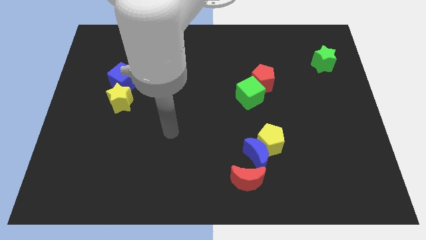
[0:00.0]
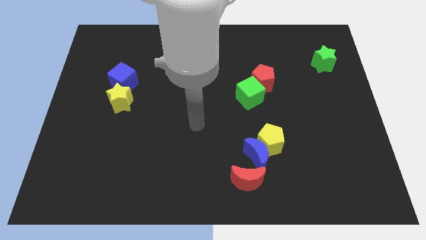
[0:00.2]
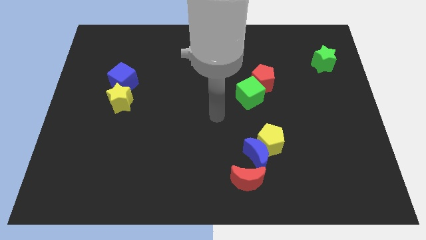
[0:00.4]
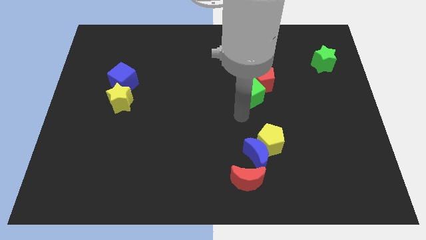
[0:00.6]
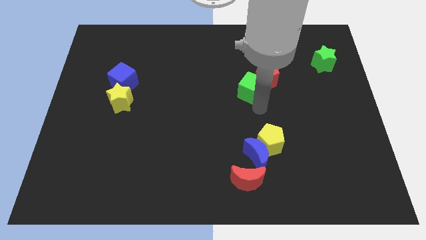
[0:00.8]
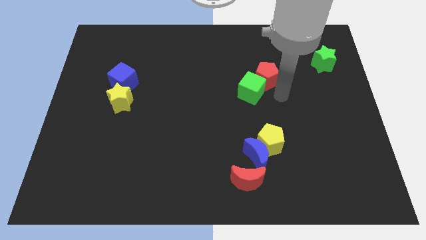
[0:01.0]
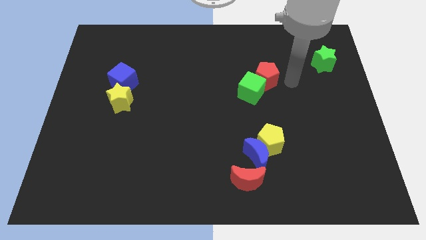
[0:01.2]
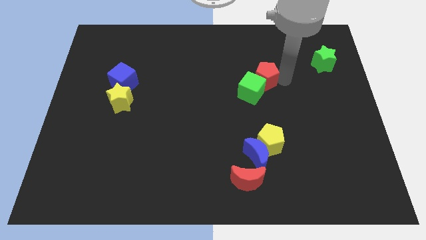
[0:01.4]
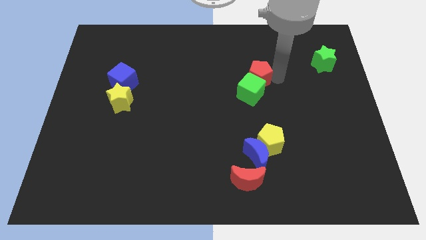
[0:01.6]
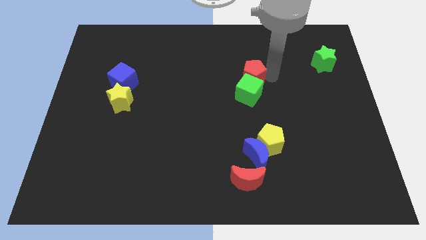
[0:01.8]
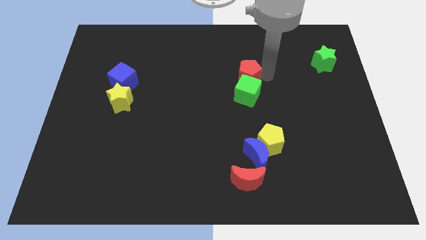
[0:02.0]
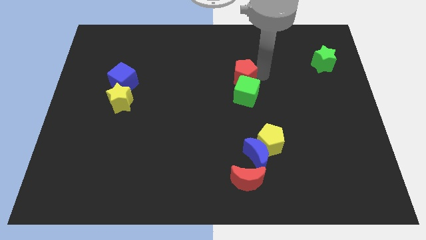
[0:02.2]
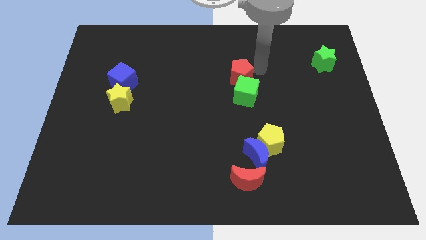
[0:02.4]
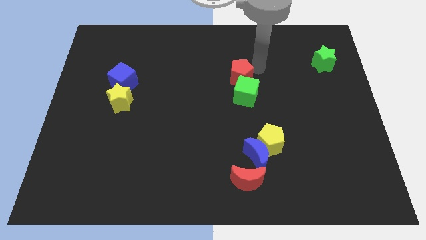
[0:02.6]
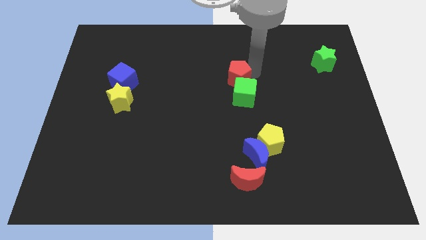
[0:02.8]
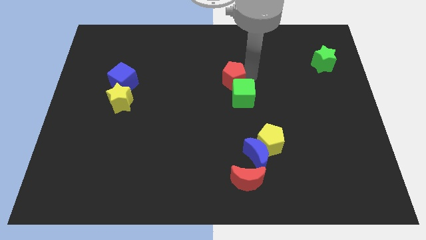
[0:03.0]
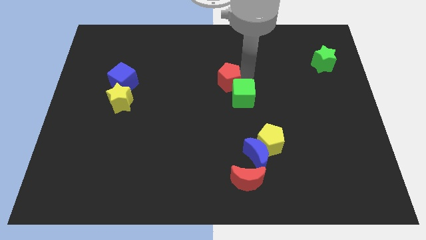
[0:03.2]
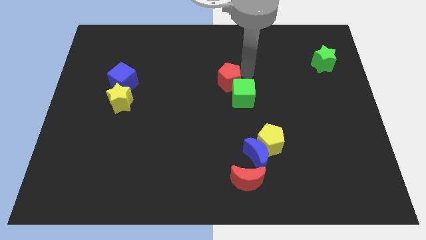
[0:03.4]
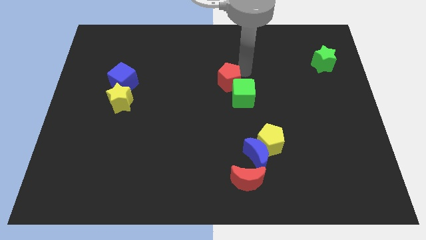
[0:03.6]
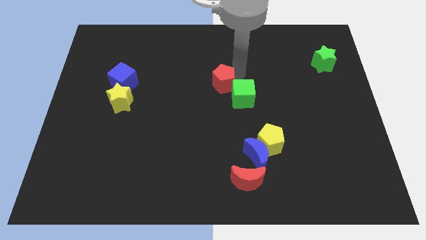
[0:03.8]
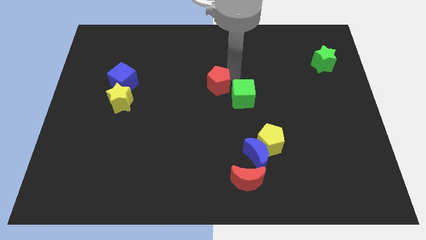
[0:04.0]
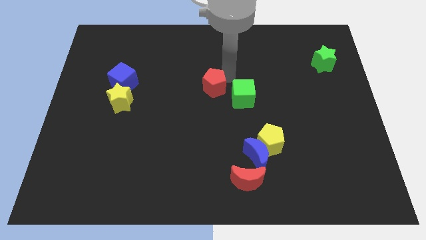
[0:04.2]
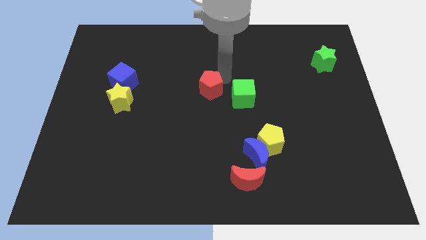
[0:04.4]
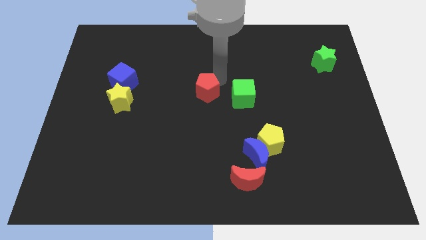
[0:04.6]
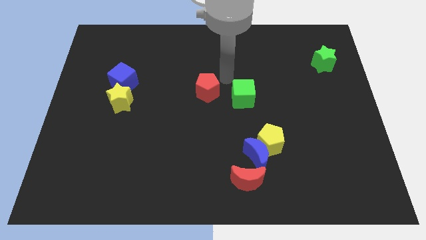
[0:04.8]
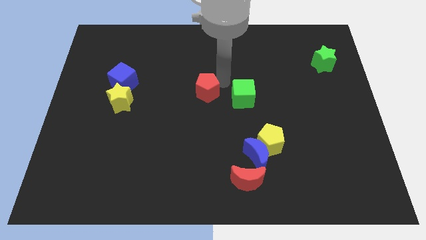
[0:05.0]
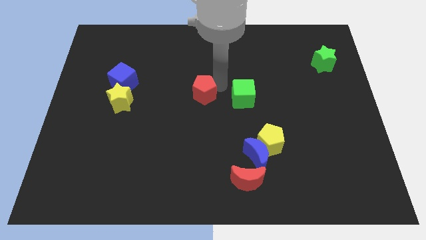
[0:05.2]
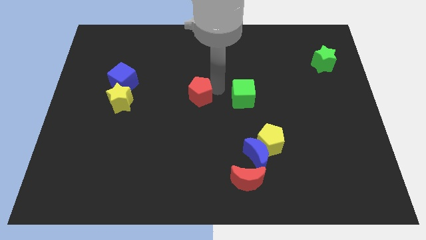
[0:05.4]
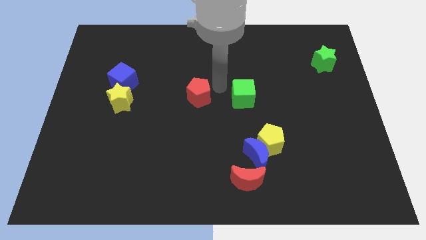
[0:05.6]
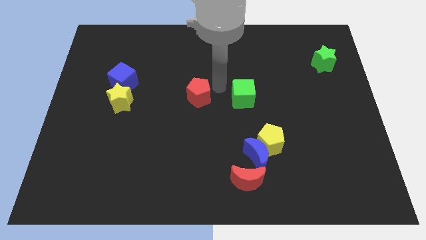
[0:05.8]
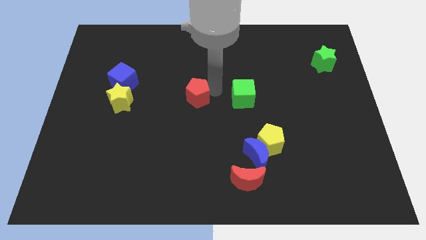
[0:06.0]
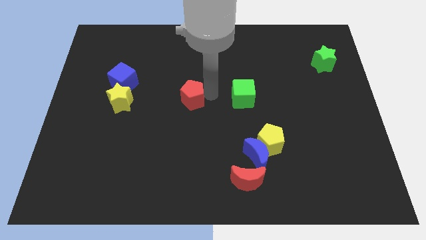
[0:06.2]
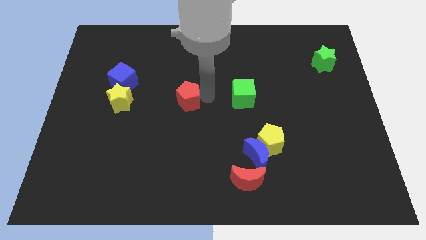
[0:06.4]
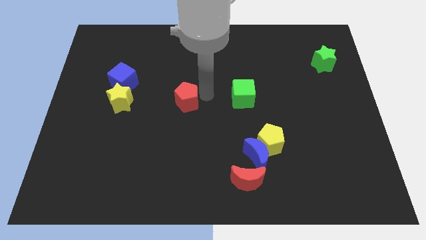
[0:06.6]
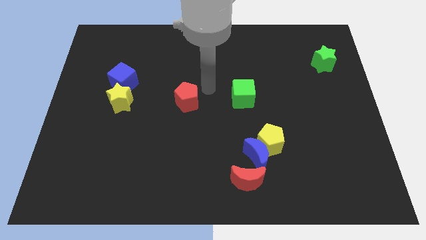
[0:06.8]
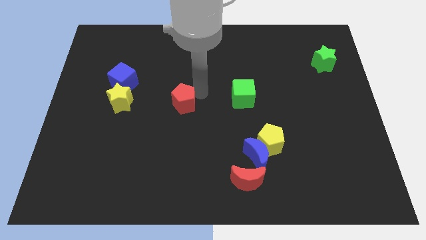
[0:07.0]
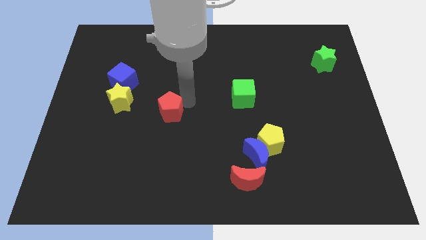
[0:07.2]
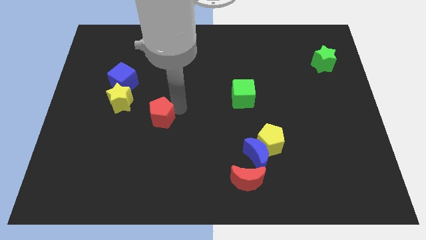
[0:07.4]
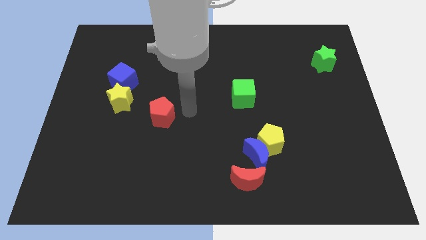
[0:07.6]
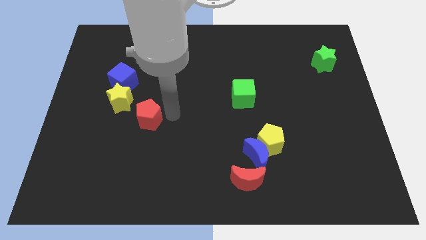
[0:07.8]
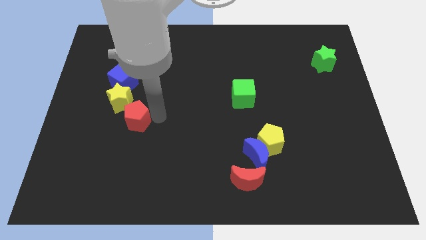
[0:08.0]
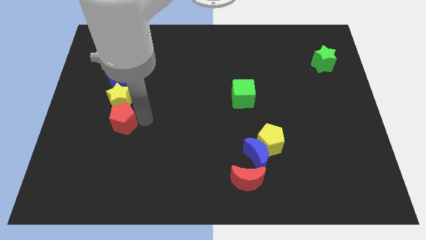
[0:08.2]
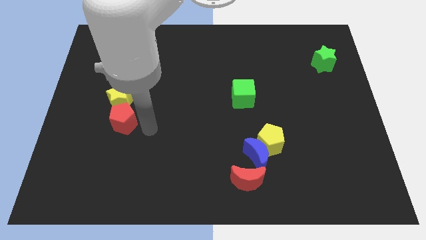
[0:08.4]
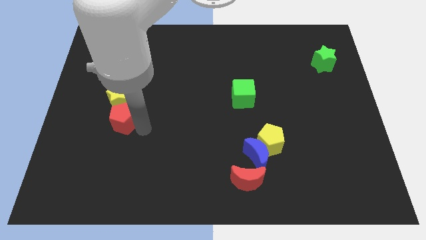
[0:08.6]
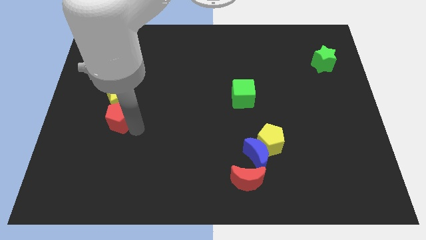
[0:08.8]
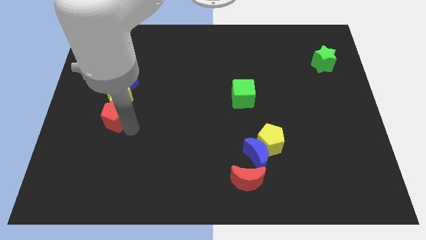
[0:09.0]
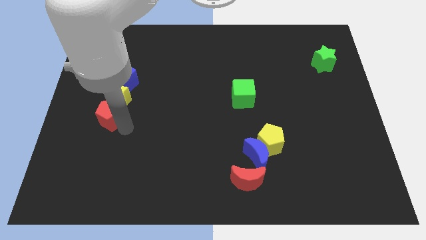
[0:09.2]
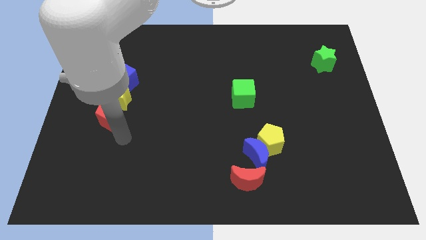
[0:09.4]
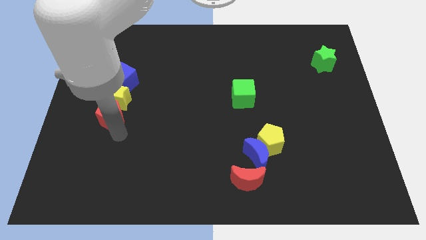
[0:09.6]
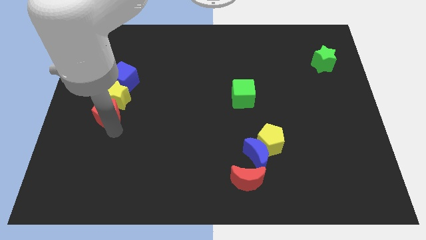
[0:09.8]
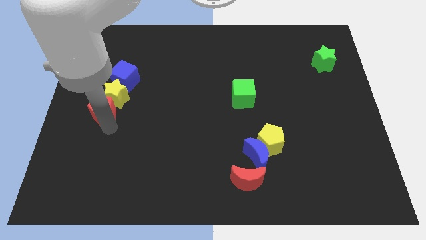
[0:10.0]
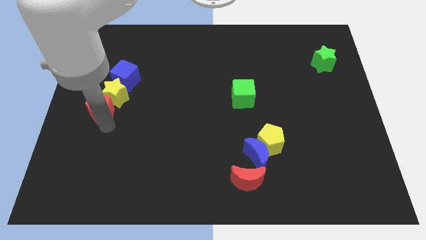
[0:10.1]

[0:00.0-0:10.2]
push the red pentagon diagonally down and to the left of the blue cube
